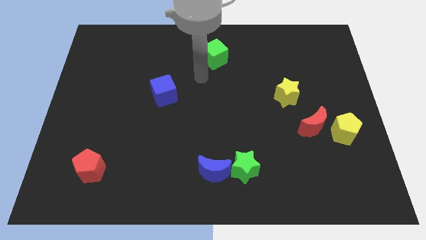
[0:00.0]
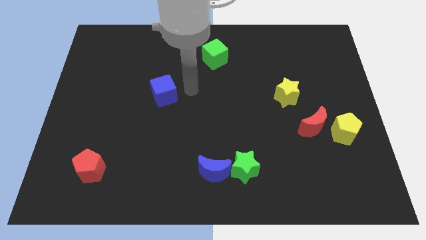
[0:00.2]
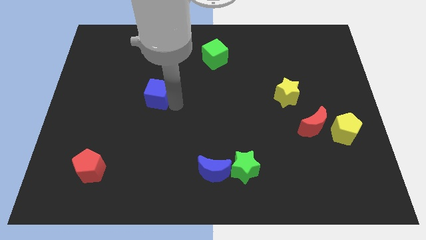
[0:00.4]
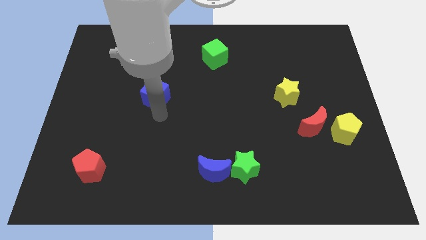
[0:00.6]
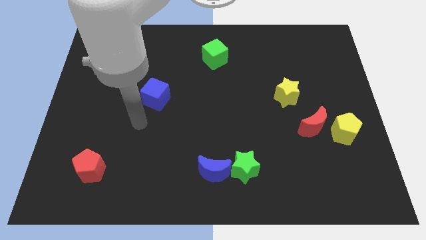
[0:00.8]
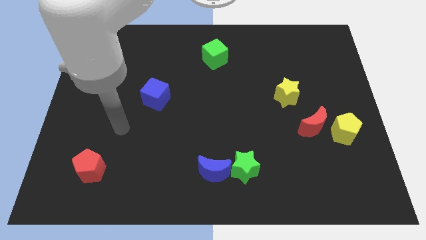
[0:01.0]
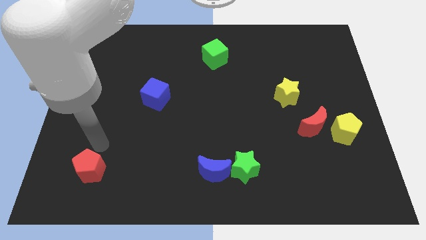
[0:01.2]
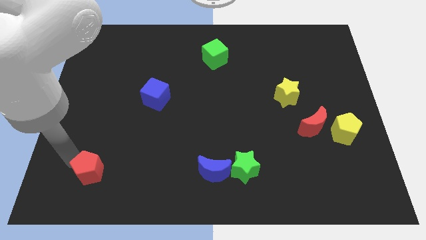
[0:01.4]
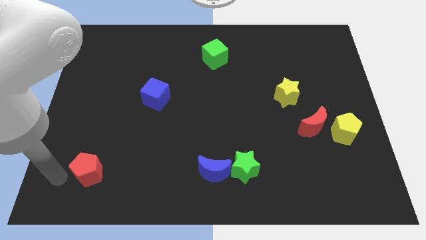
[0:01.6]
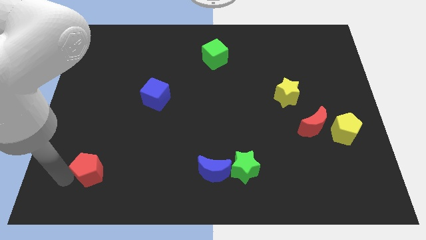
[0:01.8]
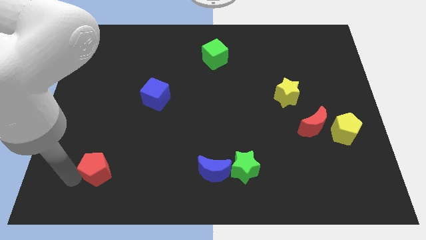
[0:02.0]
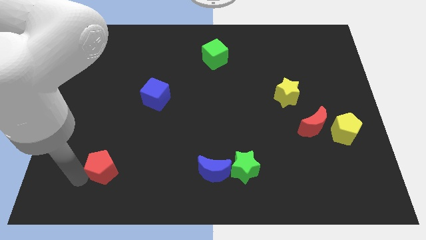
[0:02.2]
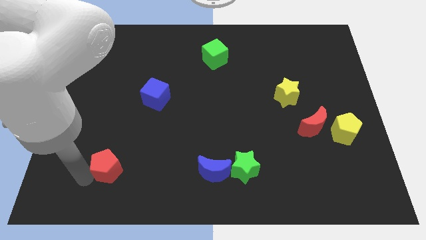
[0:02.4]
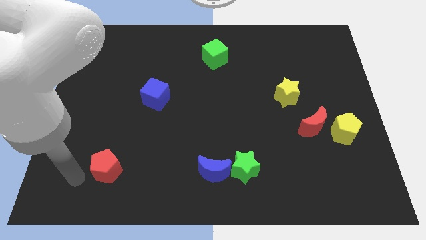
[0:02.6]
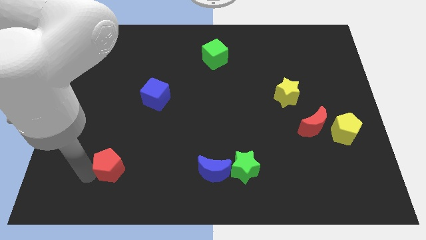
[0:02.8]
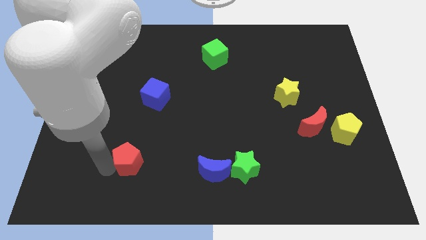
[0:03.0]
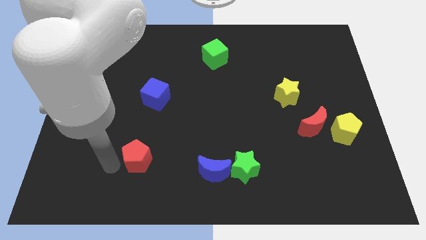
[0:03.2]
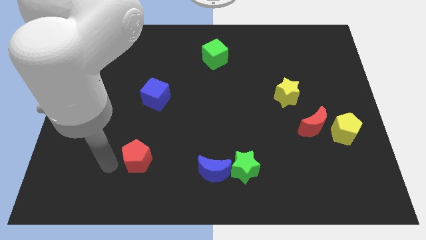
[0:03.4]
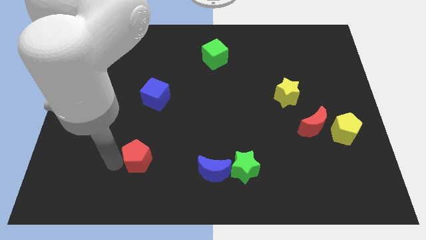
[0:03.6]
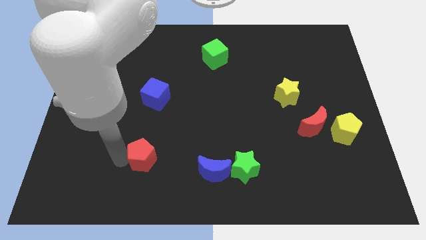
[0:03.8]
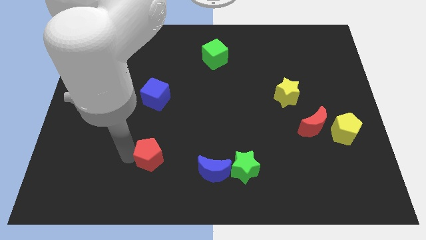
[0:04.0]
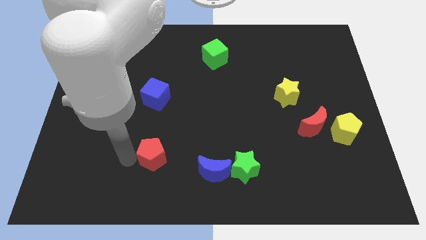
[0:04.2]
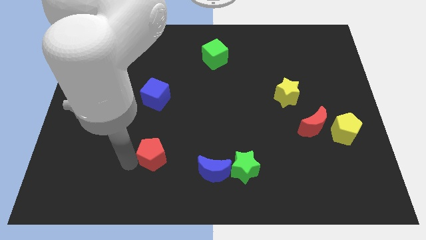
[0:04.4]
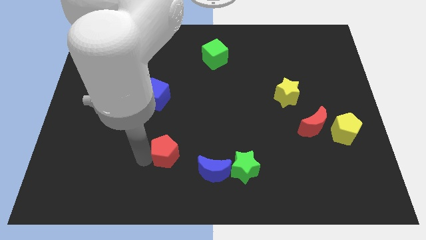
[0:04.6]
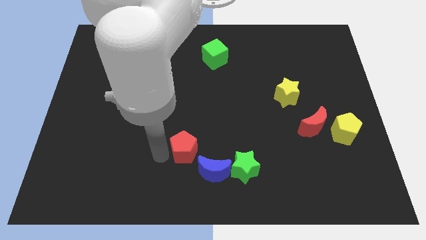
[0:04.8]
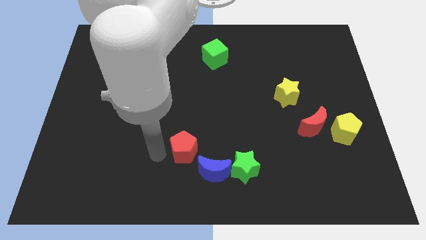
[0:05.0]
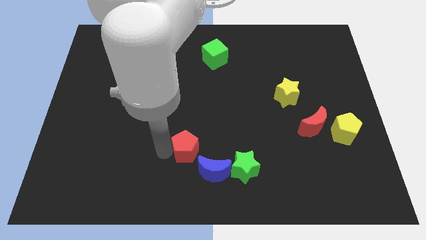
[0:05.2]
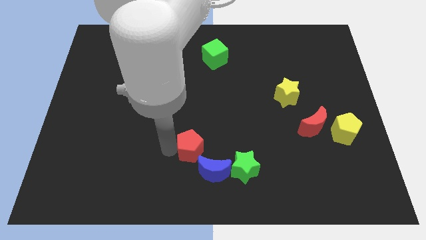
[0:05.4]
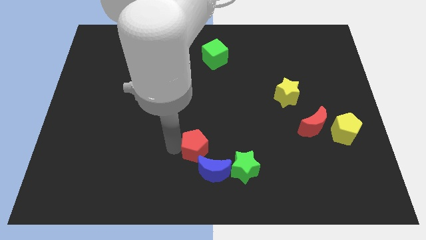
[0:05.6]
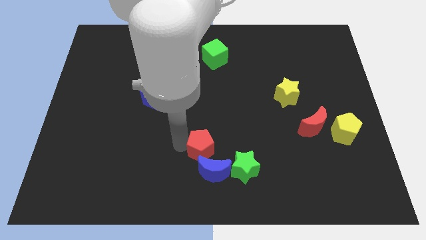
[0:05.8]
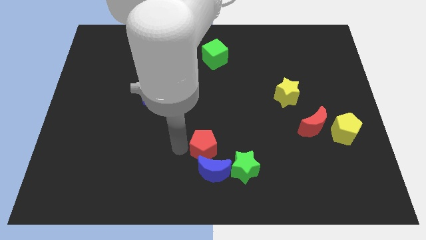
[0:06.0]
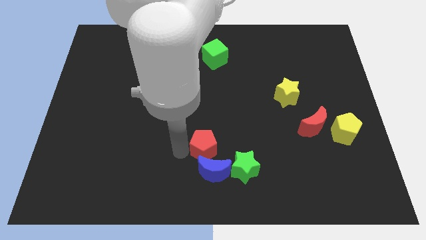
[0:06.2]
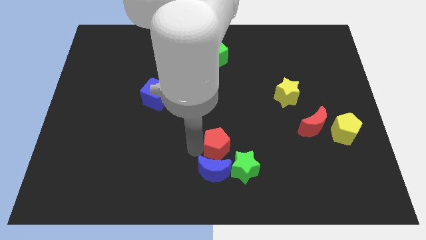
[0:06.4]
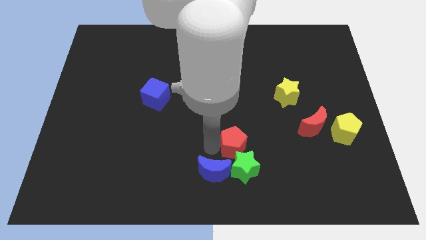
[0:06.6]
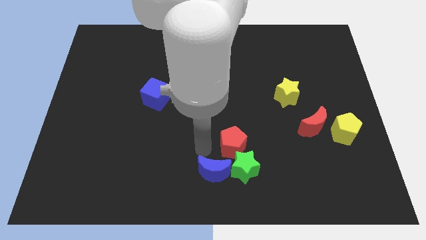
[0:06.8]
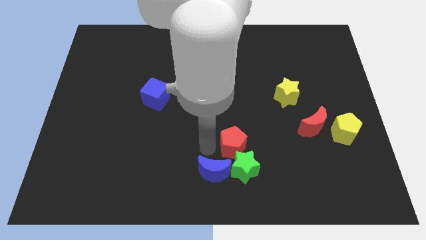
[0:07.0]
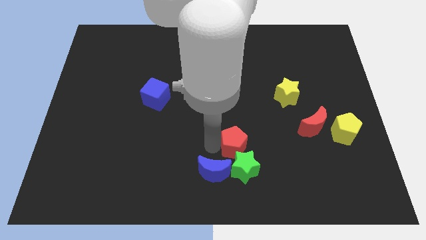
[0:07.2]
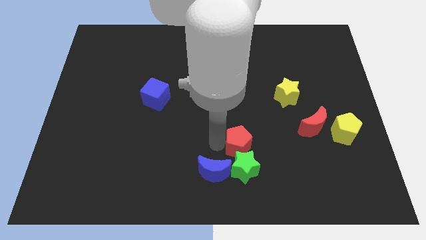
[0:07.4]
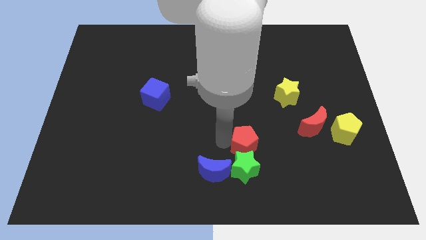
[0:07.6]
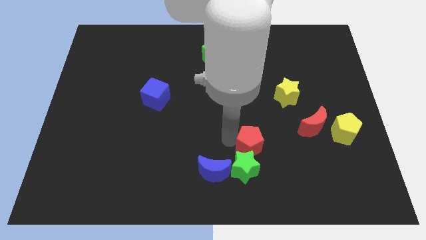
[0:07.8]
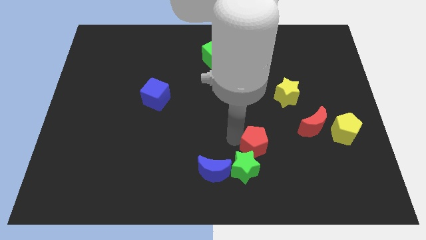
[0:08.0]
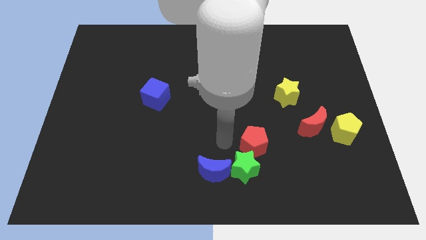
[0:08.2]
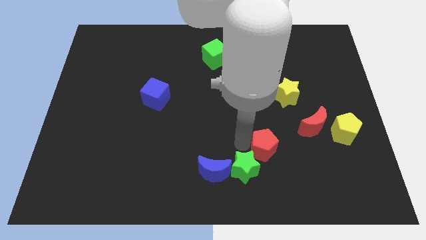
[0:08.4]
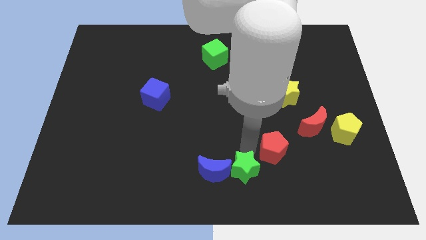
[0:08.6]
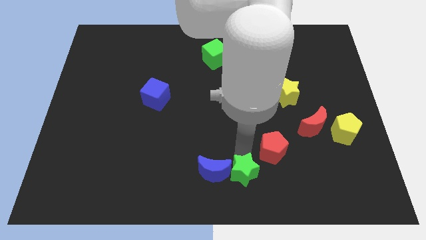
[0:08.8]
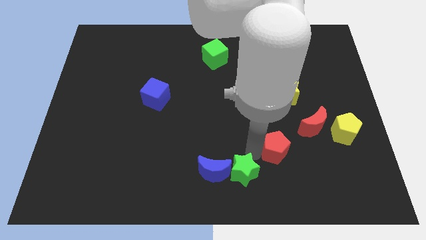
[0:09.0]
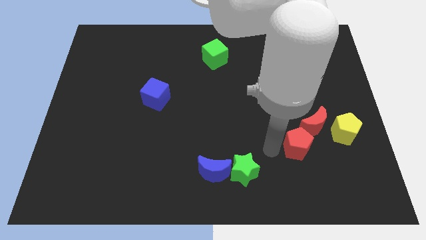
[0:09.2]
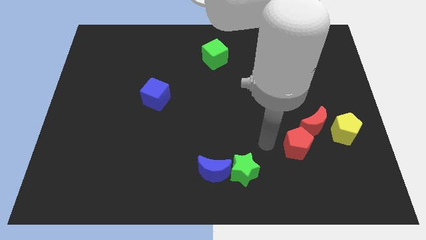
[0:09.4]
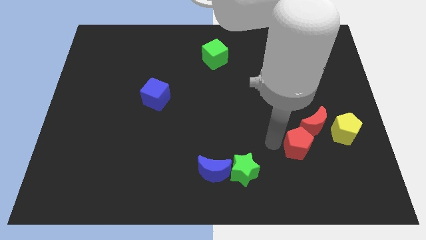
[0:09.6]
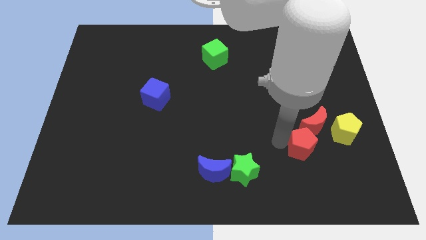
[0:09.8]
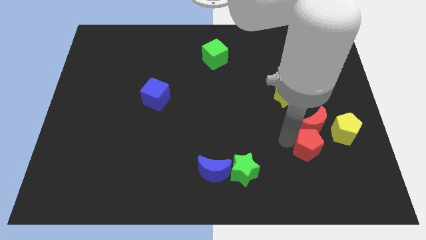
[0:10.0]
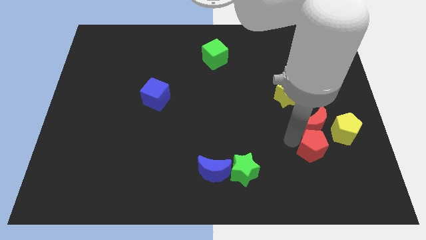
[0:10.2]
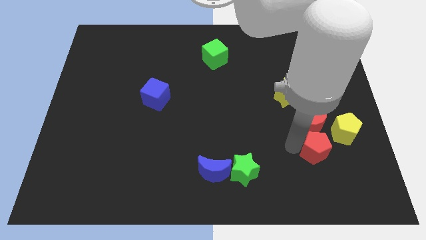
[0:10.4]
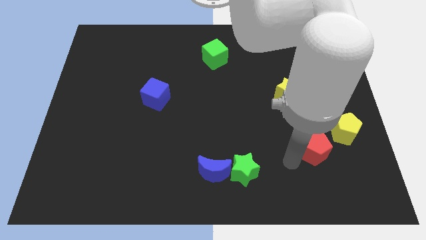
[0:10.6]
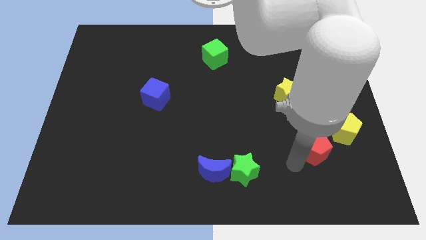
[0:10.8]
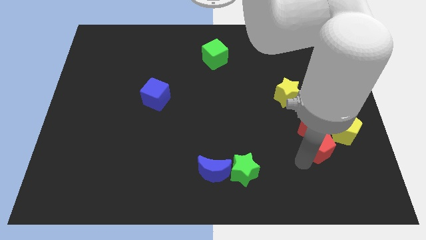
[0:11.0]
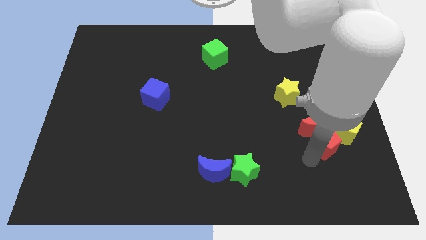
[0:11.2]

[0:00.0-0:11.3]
move the red pentagon towards the yellow pentagon
